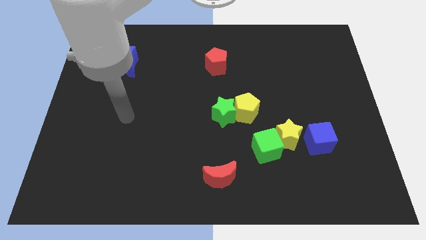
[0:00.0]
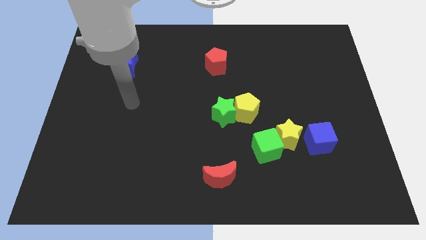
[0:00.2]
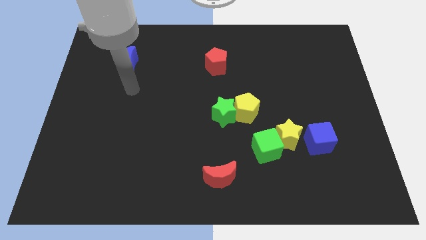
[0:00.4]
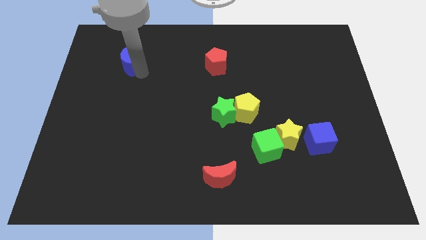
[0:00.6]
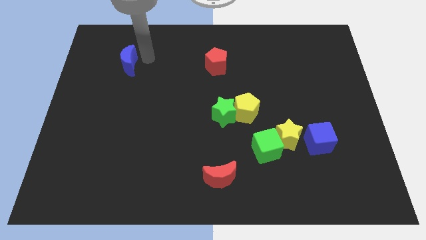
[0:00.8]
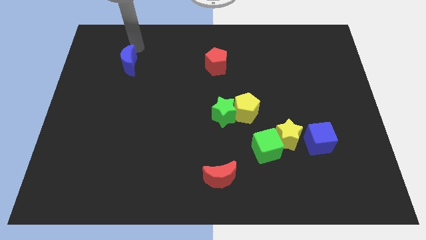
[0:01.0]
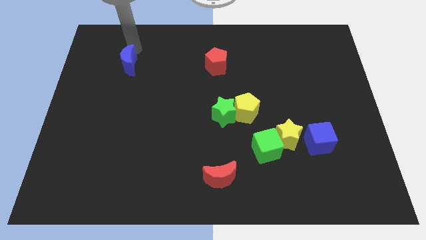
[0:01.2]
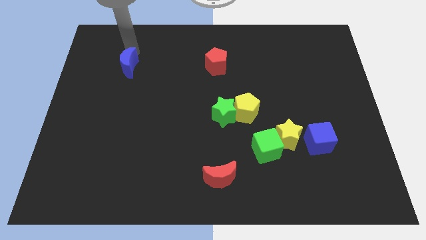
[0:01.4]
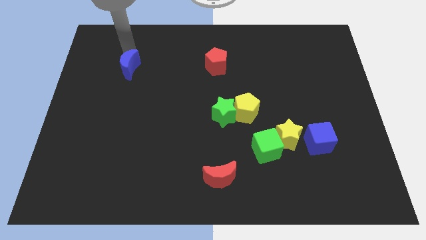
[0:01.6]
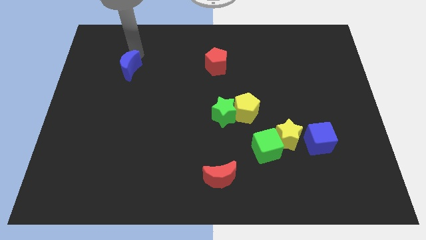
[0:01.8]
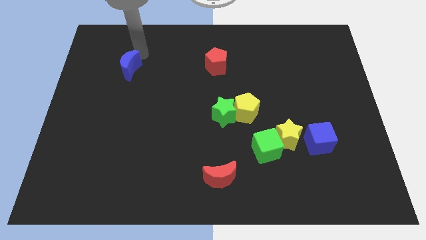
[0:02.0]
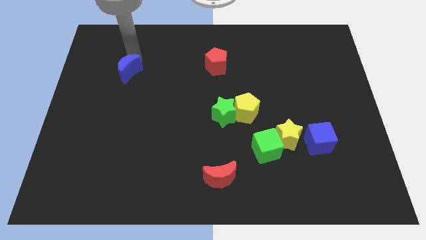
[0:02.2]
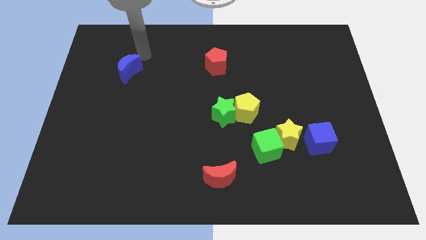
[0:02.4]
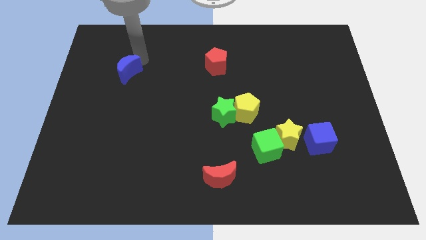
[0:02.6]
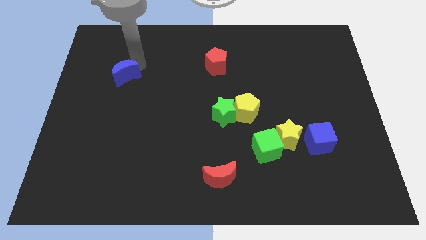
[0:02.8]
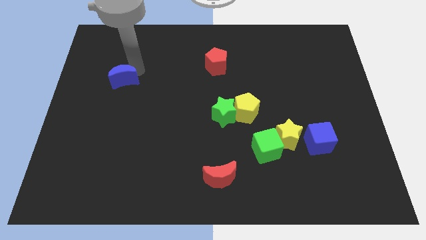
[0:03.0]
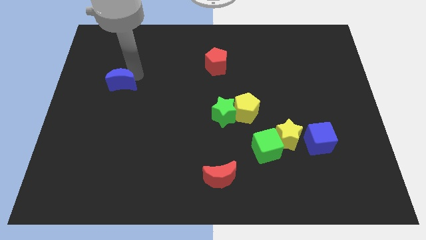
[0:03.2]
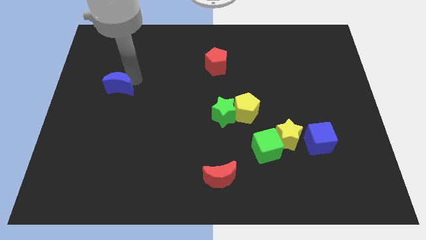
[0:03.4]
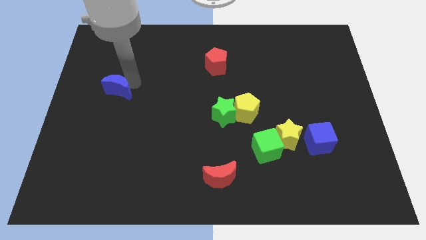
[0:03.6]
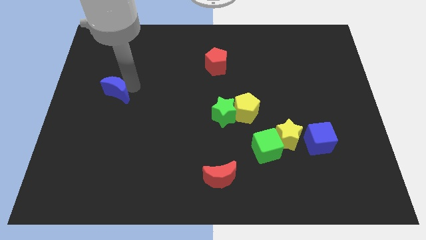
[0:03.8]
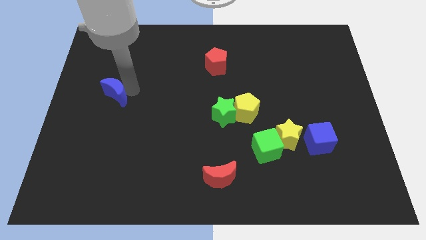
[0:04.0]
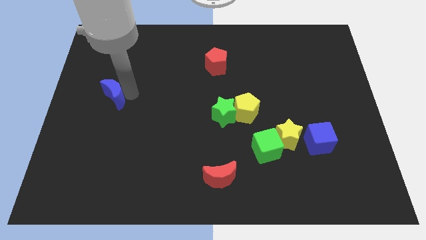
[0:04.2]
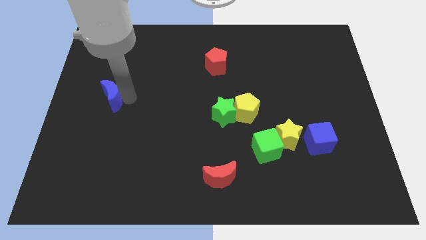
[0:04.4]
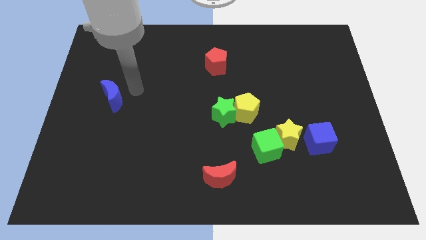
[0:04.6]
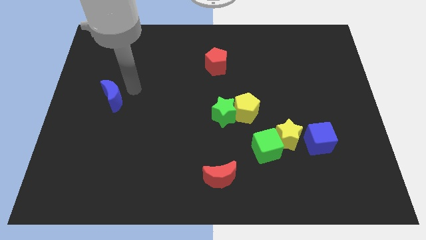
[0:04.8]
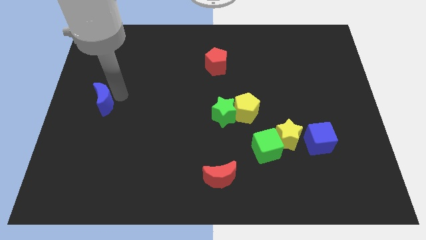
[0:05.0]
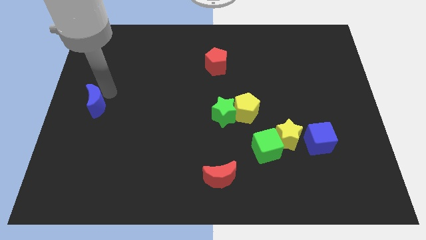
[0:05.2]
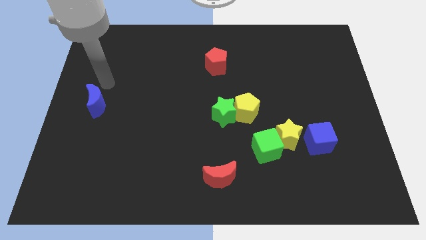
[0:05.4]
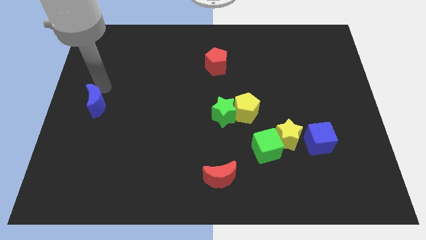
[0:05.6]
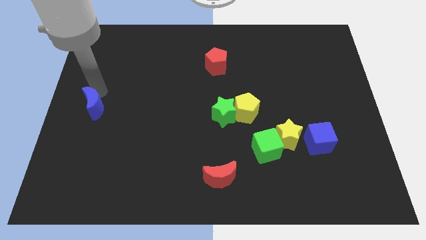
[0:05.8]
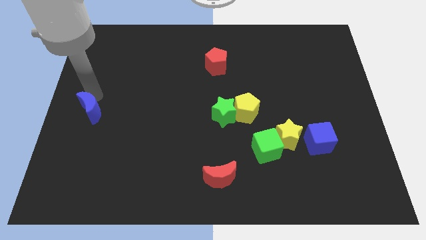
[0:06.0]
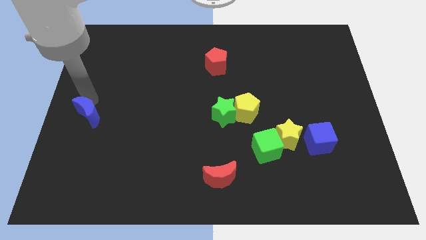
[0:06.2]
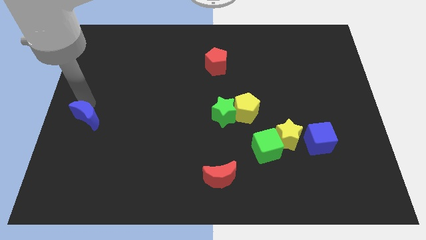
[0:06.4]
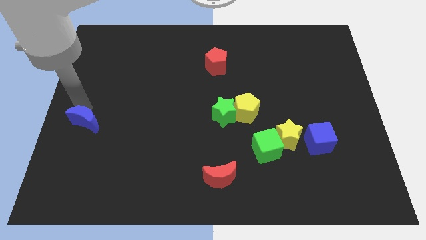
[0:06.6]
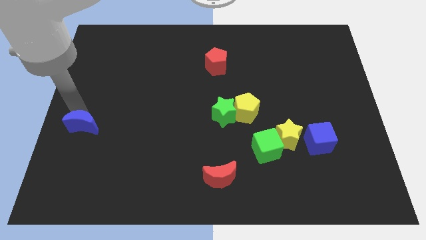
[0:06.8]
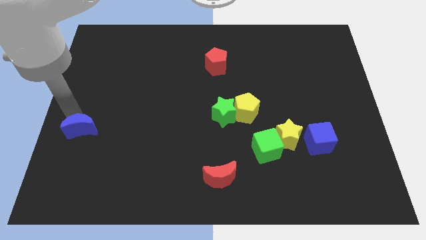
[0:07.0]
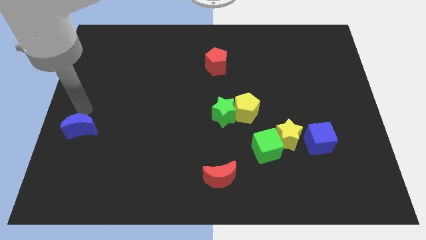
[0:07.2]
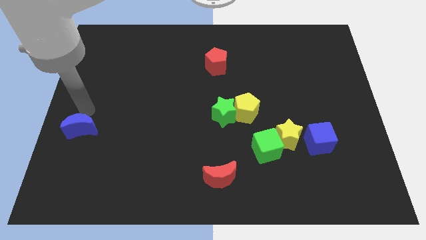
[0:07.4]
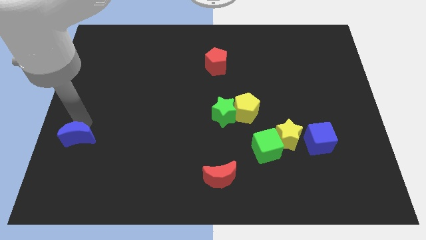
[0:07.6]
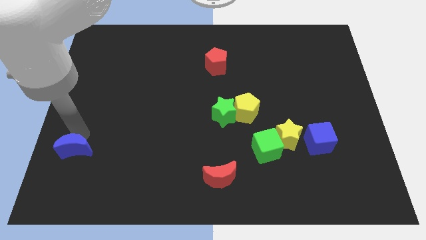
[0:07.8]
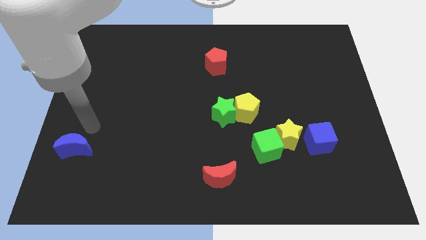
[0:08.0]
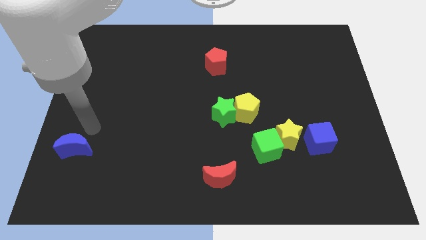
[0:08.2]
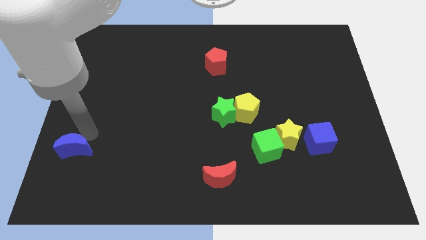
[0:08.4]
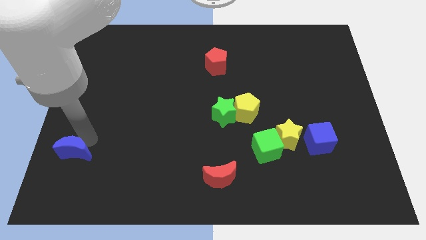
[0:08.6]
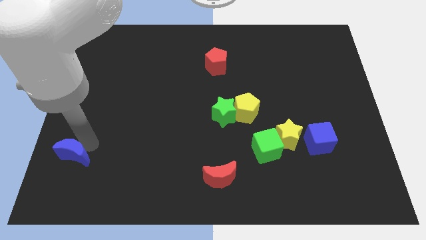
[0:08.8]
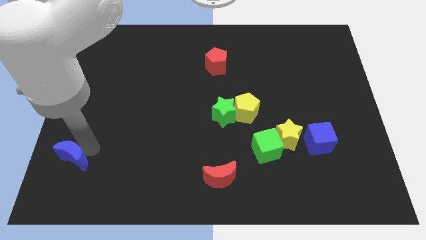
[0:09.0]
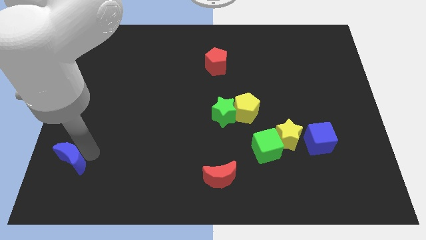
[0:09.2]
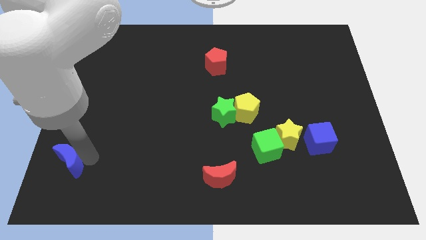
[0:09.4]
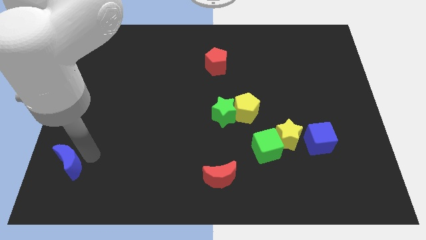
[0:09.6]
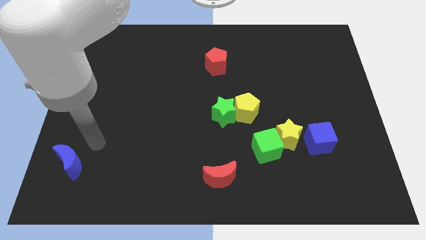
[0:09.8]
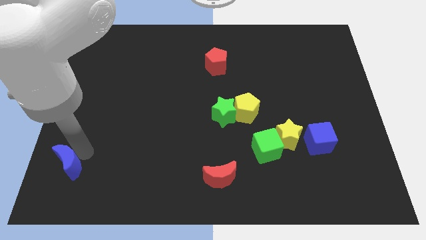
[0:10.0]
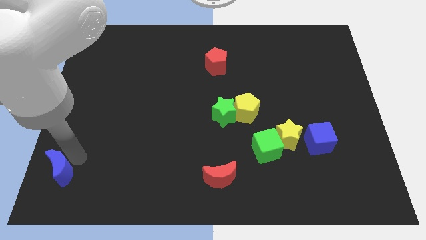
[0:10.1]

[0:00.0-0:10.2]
slide the blue moon to the bottom left of the board

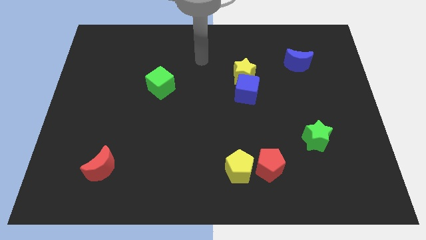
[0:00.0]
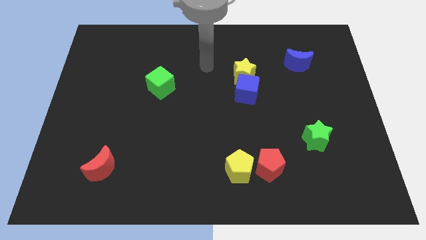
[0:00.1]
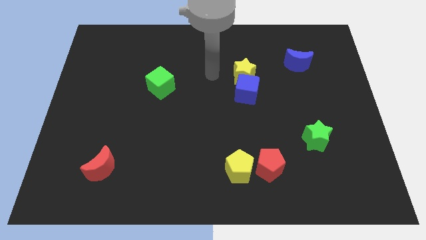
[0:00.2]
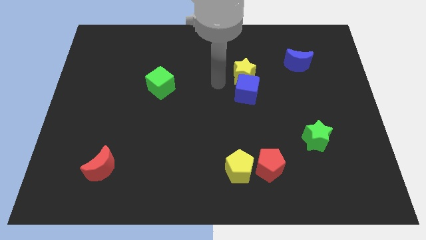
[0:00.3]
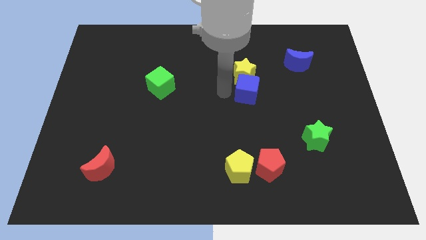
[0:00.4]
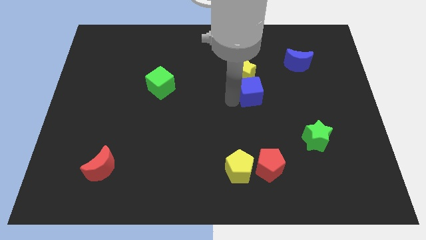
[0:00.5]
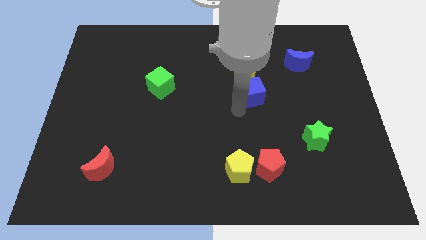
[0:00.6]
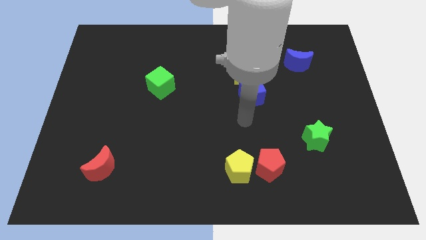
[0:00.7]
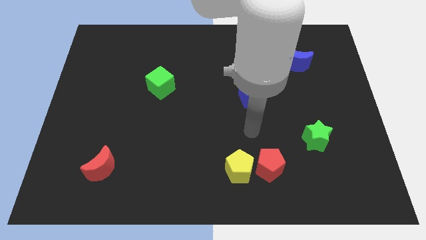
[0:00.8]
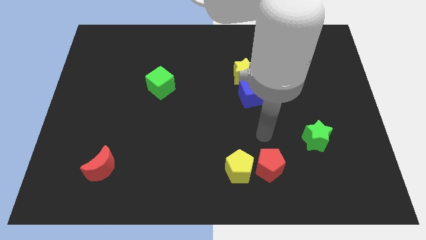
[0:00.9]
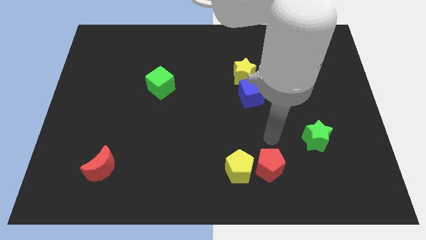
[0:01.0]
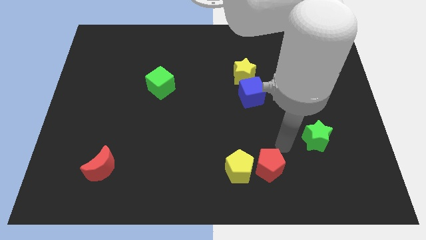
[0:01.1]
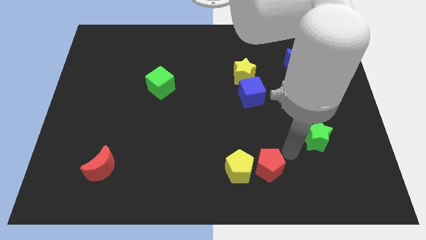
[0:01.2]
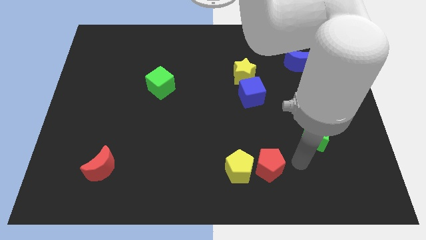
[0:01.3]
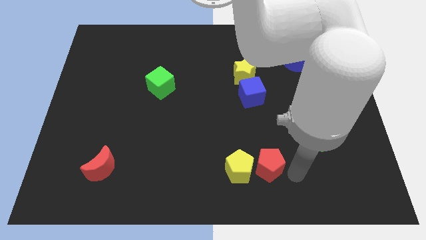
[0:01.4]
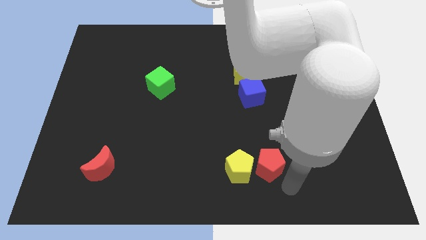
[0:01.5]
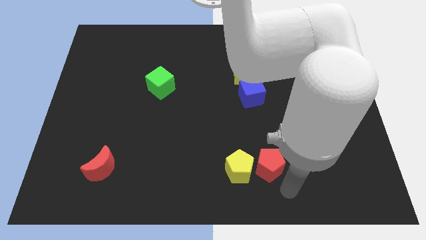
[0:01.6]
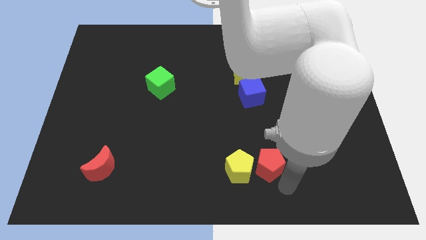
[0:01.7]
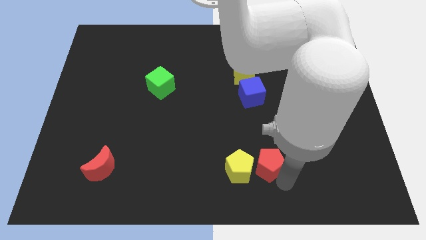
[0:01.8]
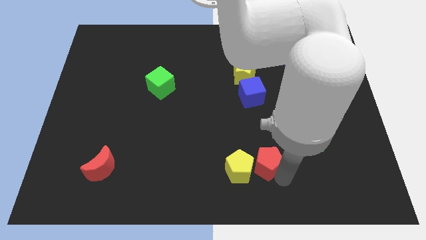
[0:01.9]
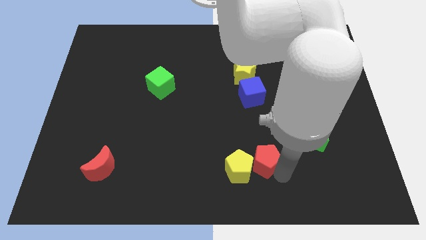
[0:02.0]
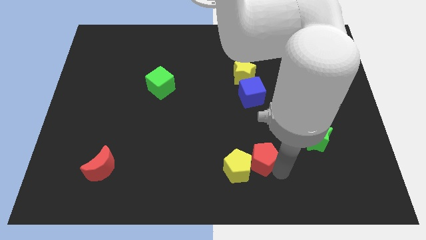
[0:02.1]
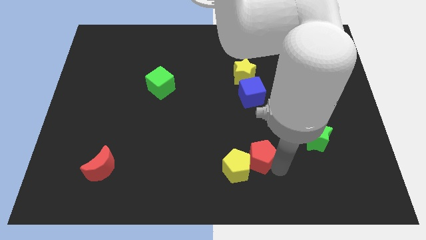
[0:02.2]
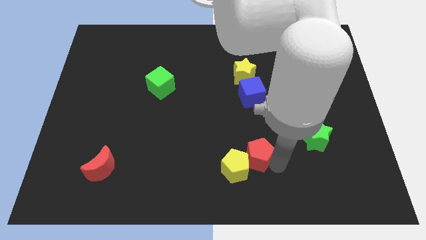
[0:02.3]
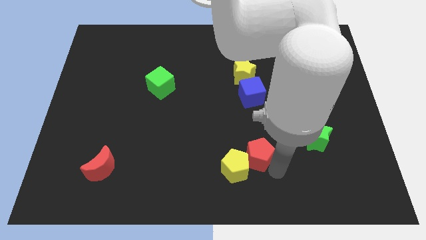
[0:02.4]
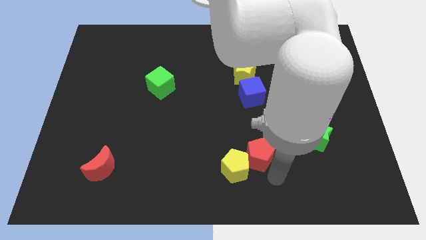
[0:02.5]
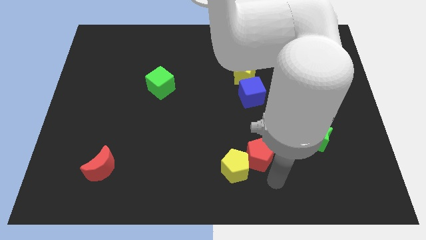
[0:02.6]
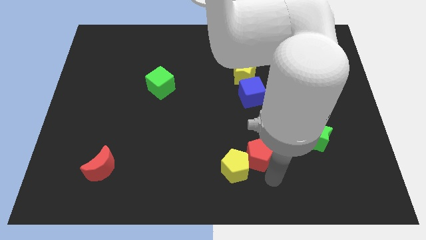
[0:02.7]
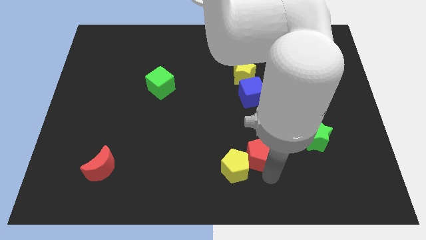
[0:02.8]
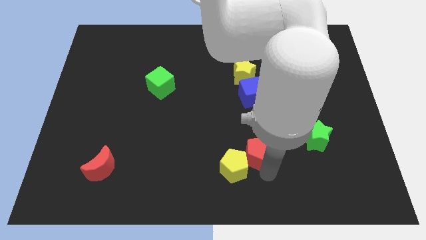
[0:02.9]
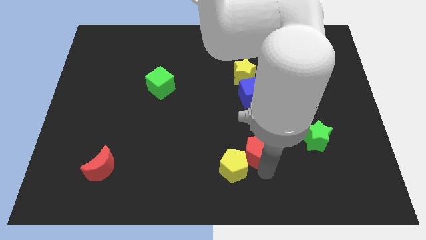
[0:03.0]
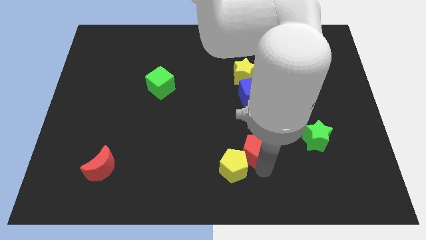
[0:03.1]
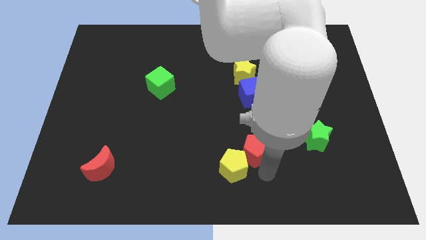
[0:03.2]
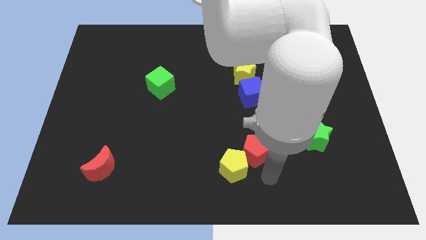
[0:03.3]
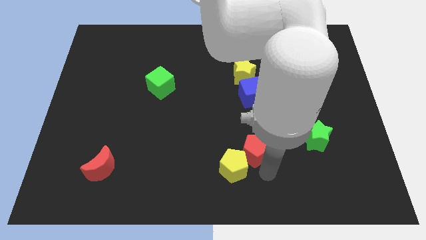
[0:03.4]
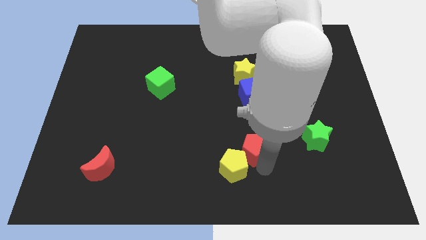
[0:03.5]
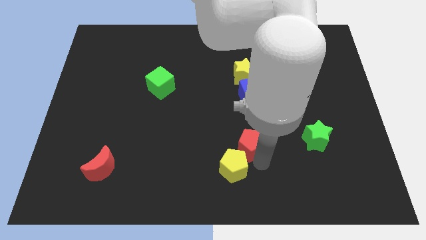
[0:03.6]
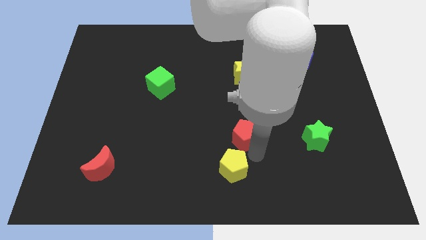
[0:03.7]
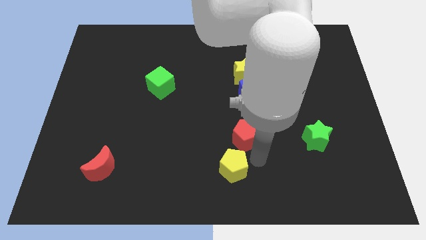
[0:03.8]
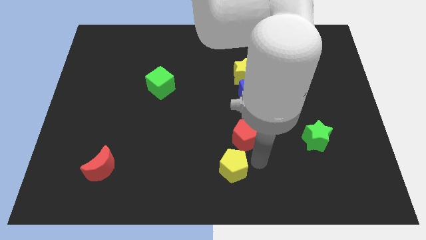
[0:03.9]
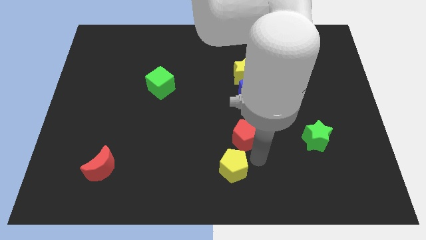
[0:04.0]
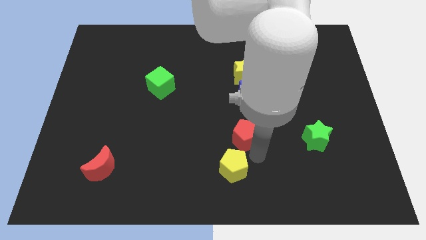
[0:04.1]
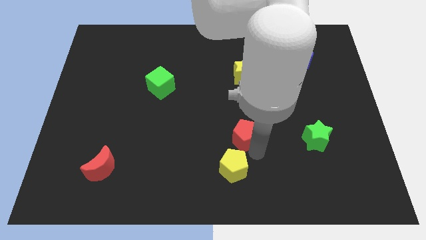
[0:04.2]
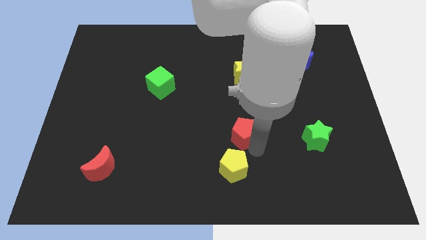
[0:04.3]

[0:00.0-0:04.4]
push the red pentagon to the center of the board
